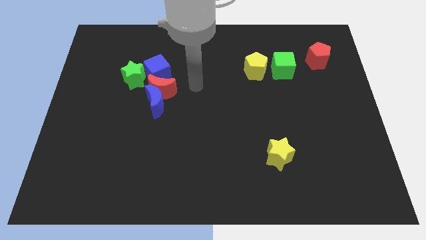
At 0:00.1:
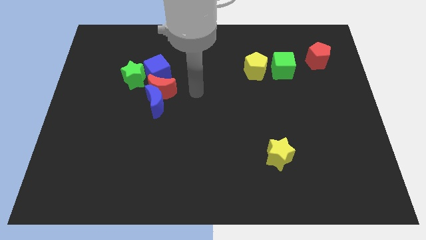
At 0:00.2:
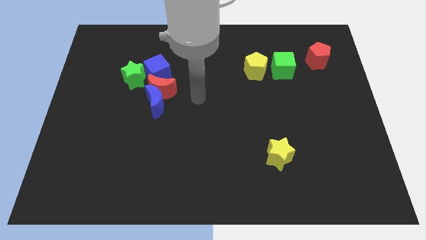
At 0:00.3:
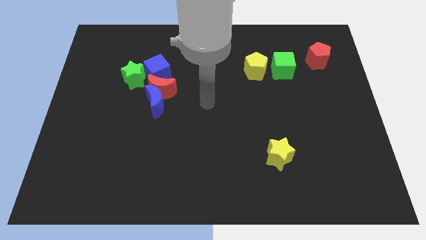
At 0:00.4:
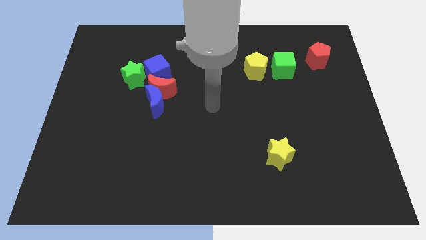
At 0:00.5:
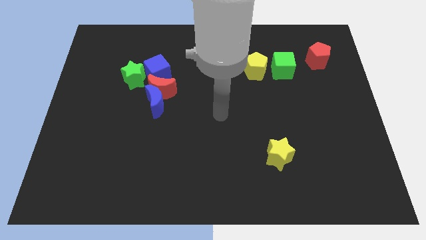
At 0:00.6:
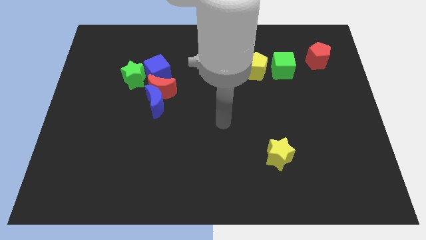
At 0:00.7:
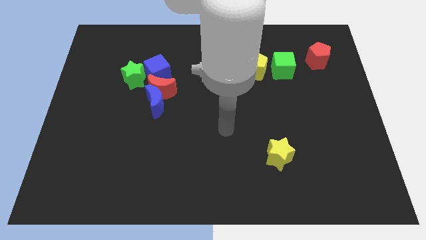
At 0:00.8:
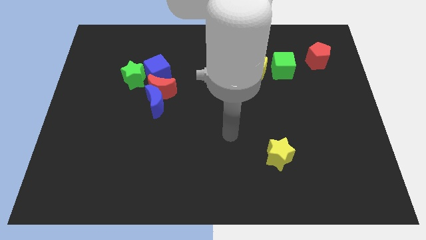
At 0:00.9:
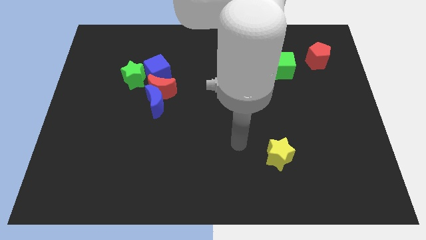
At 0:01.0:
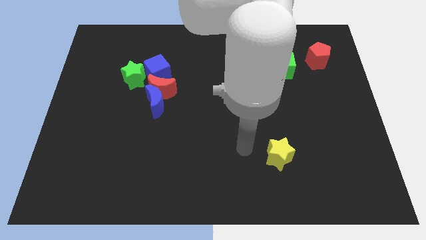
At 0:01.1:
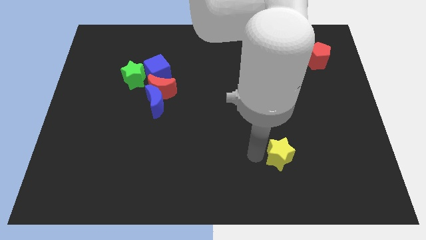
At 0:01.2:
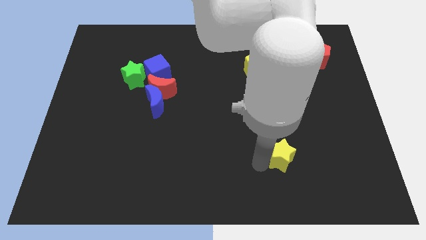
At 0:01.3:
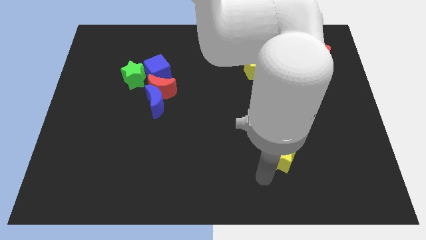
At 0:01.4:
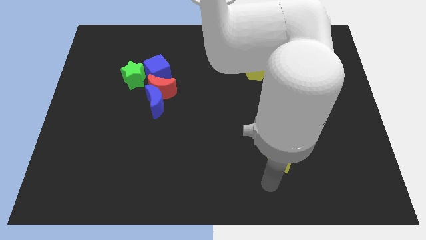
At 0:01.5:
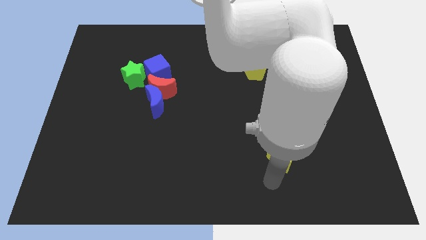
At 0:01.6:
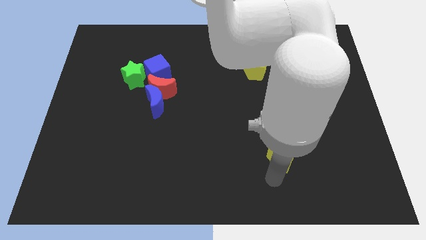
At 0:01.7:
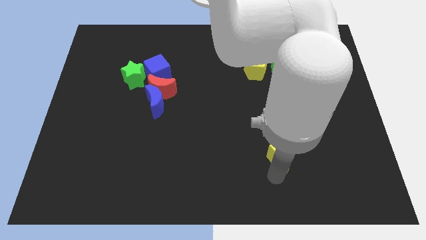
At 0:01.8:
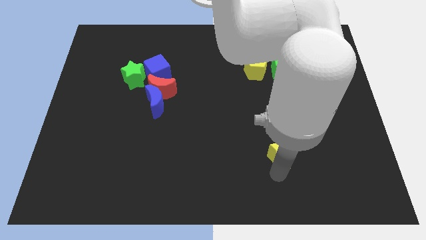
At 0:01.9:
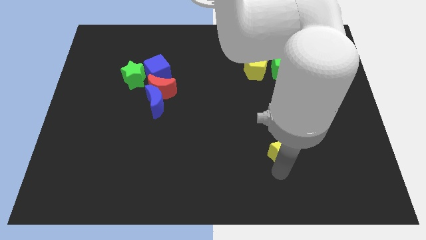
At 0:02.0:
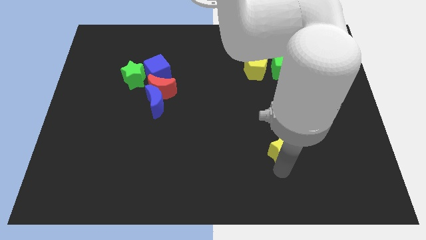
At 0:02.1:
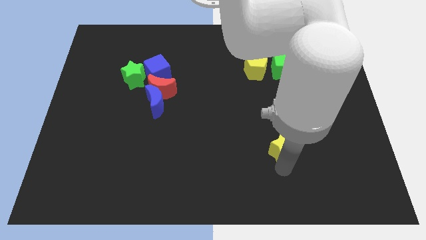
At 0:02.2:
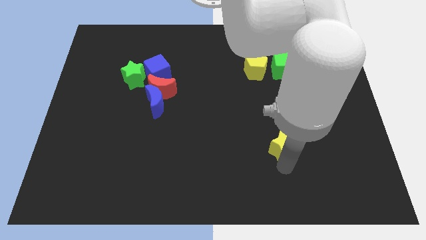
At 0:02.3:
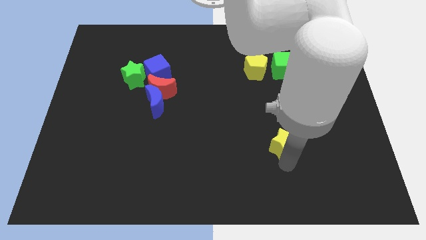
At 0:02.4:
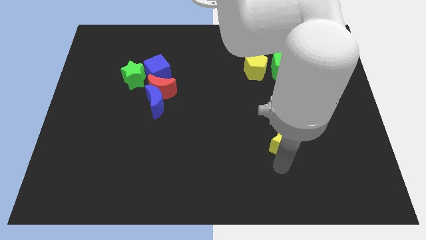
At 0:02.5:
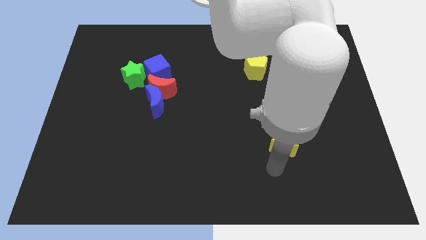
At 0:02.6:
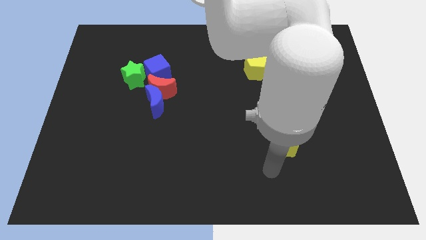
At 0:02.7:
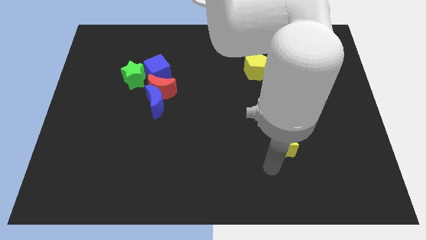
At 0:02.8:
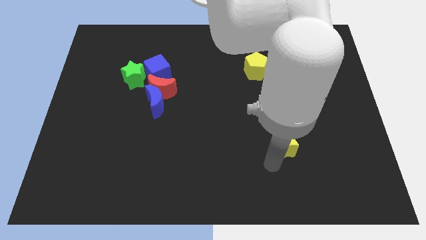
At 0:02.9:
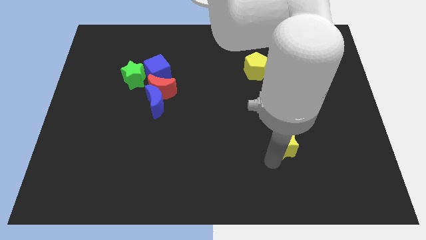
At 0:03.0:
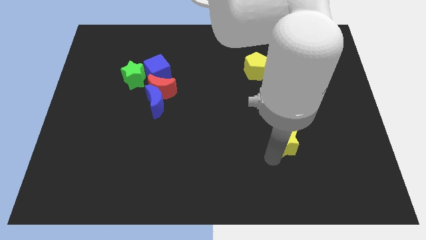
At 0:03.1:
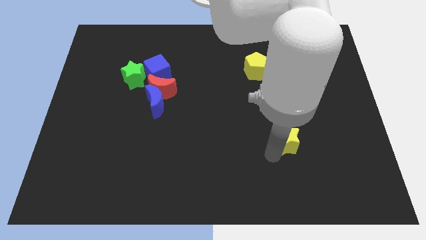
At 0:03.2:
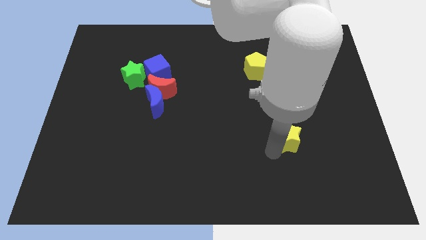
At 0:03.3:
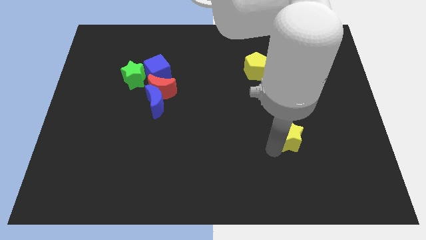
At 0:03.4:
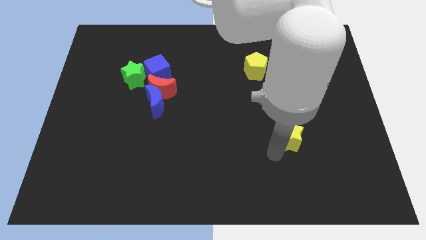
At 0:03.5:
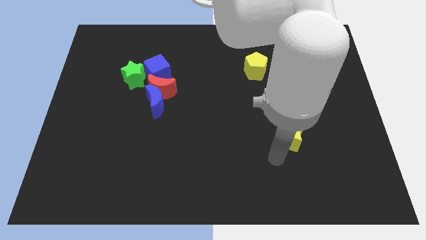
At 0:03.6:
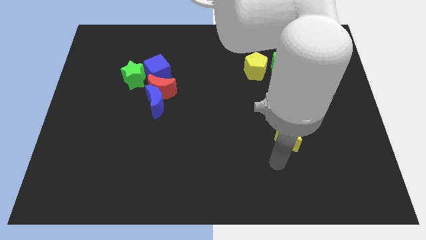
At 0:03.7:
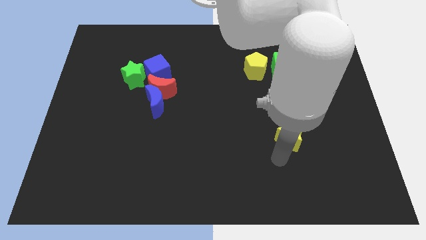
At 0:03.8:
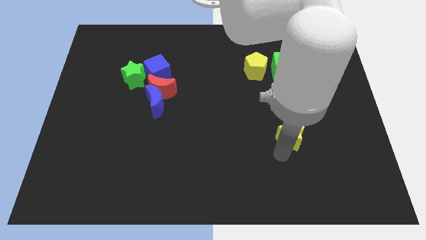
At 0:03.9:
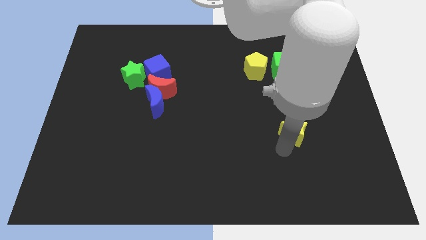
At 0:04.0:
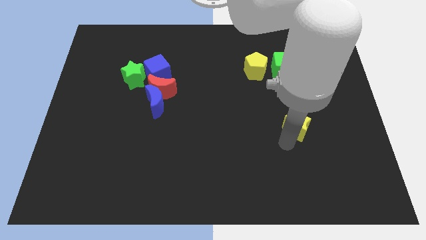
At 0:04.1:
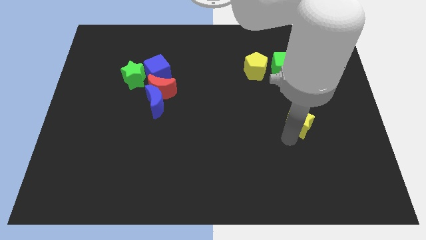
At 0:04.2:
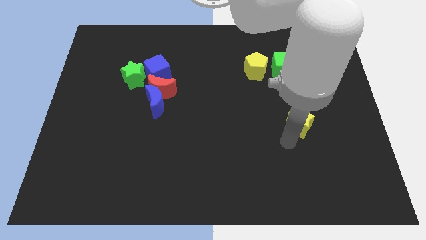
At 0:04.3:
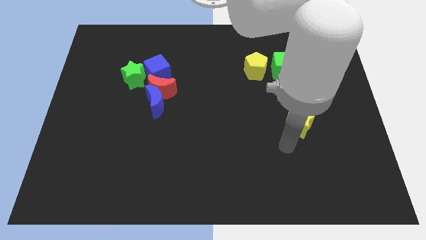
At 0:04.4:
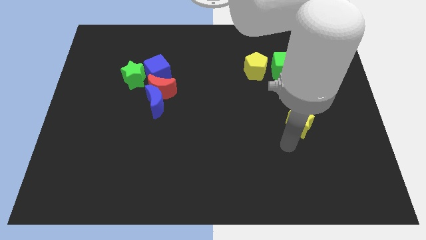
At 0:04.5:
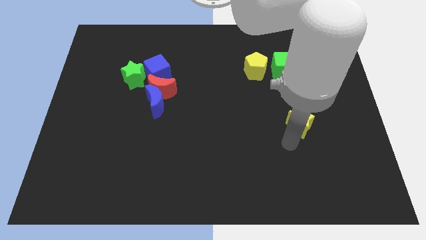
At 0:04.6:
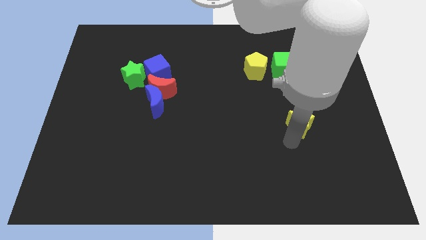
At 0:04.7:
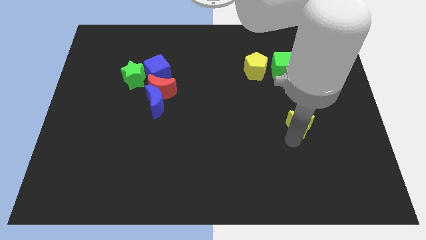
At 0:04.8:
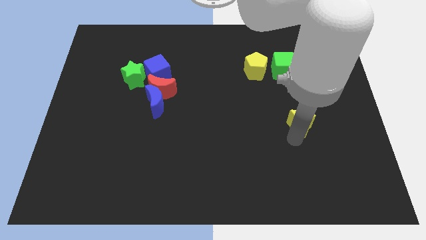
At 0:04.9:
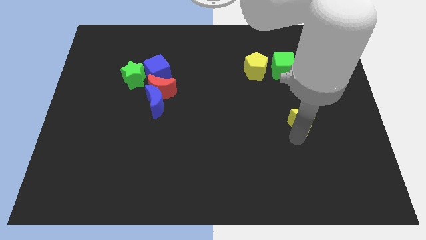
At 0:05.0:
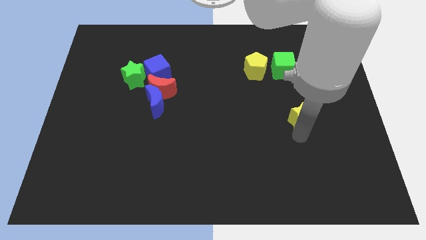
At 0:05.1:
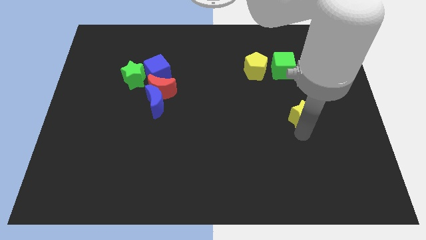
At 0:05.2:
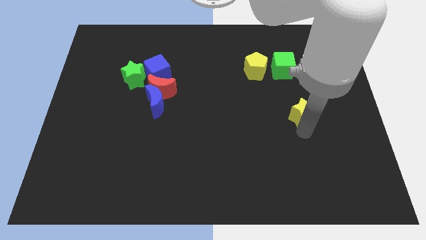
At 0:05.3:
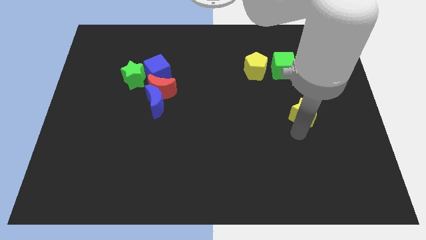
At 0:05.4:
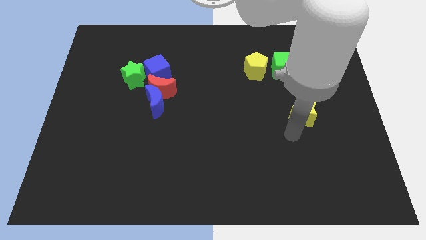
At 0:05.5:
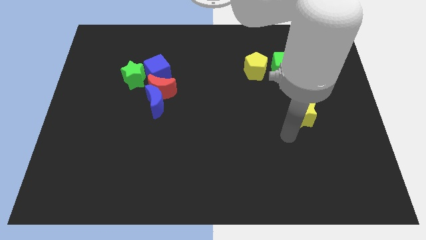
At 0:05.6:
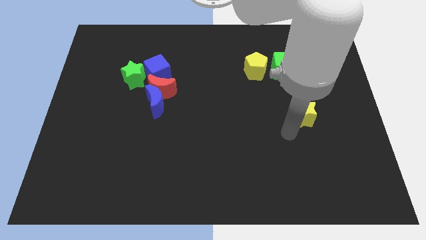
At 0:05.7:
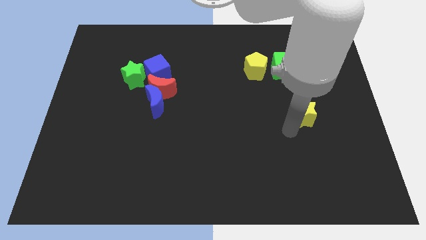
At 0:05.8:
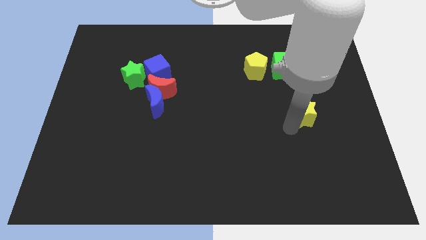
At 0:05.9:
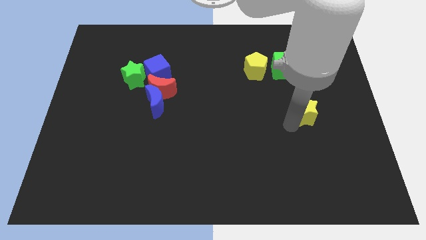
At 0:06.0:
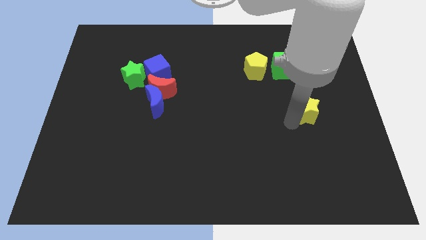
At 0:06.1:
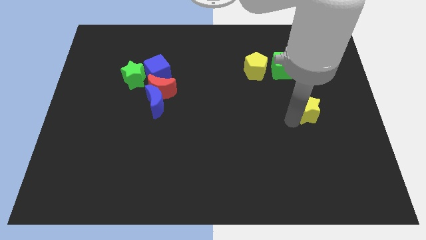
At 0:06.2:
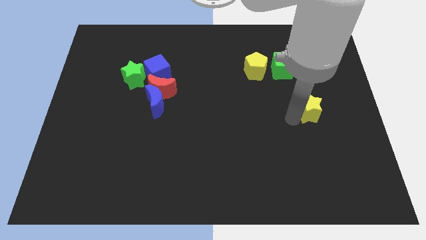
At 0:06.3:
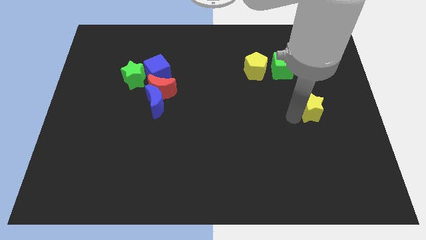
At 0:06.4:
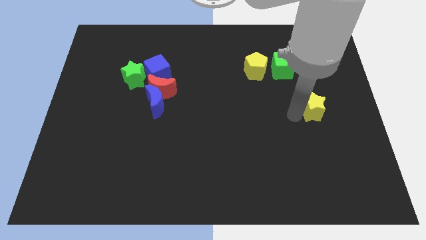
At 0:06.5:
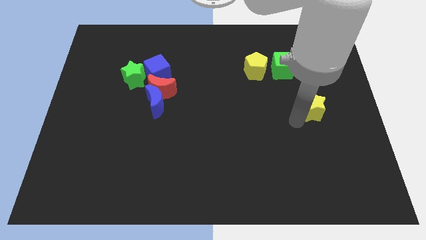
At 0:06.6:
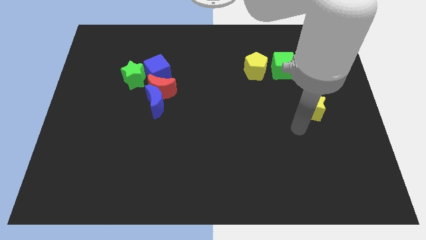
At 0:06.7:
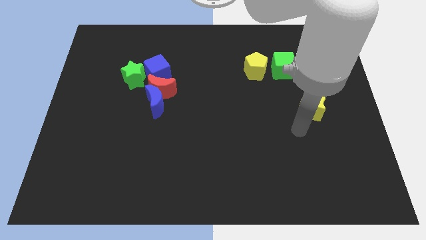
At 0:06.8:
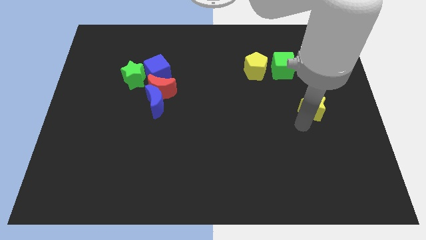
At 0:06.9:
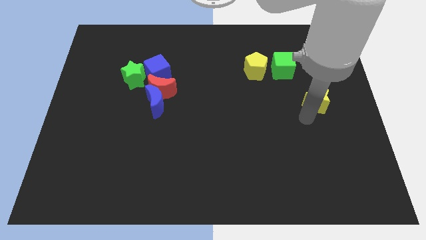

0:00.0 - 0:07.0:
push the yellow star to the bottom side of the red pentagon

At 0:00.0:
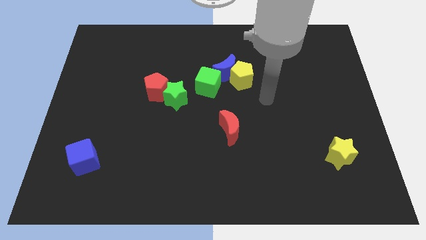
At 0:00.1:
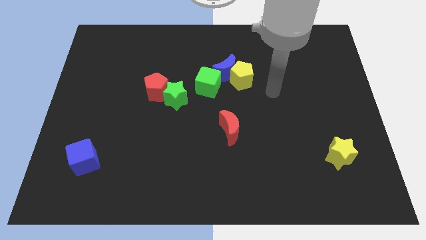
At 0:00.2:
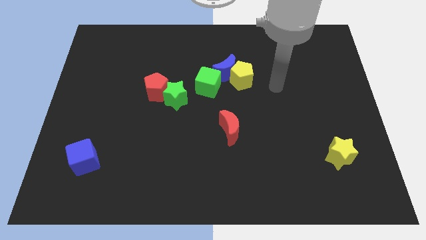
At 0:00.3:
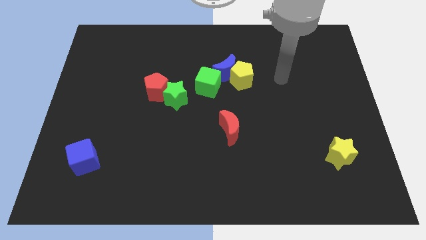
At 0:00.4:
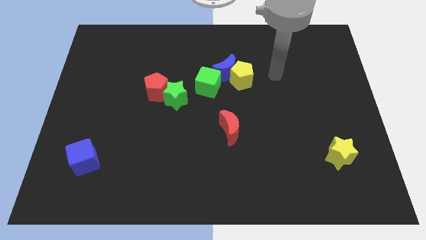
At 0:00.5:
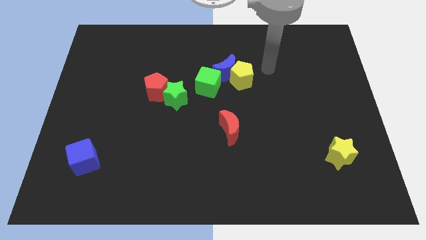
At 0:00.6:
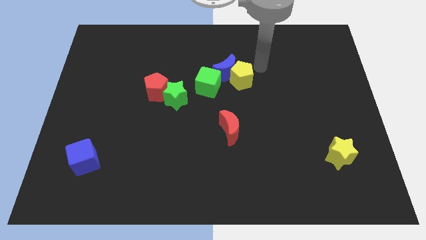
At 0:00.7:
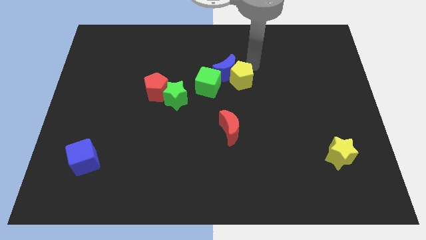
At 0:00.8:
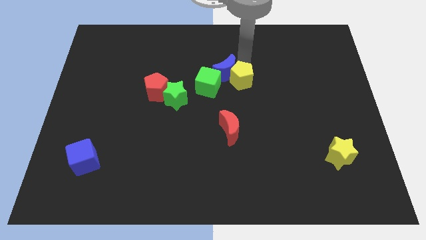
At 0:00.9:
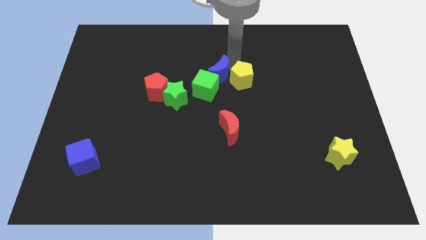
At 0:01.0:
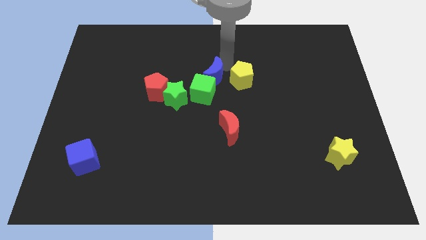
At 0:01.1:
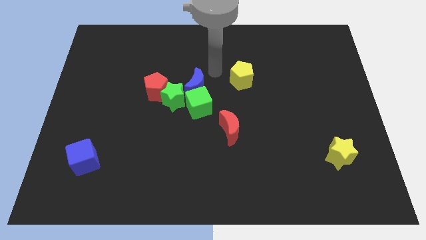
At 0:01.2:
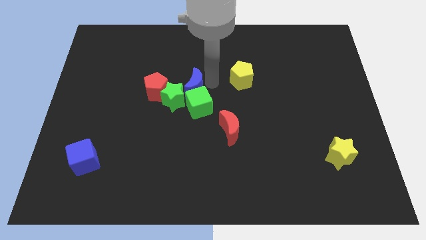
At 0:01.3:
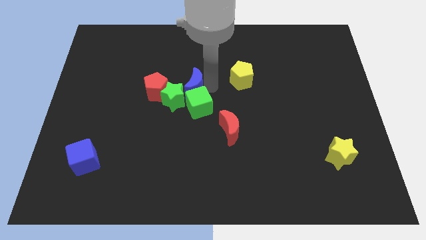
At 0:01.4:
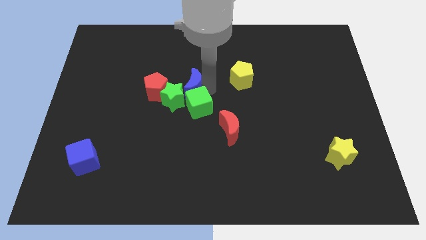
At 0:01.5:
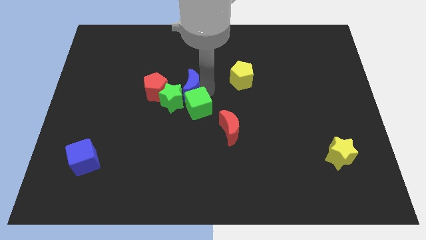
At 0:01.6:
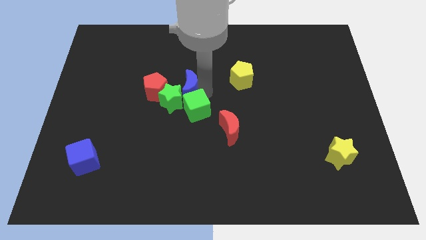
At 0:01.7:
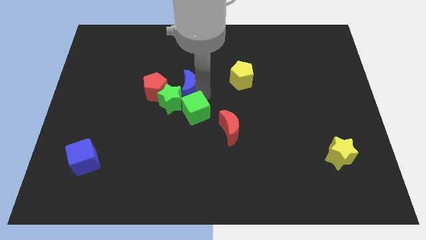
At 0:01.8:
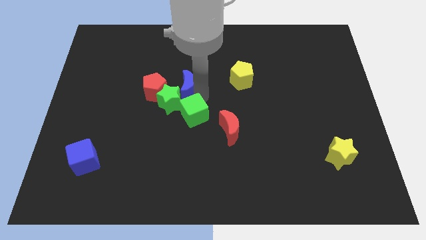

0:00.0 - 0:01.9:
push the green cube left of the red moon
